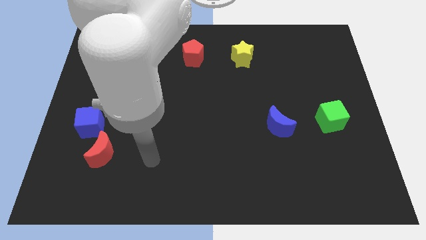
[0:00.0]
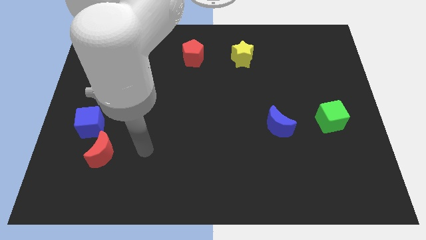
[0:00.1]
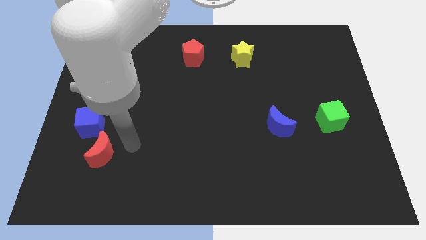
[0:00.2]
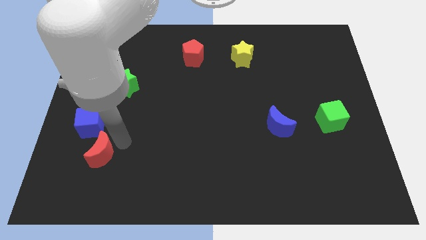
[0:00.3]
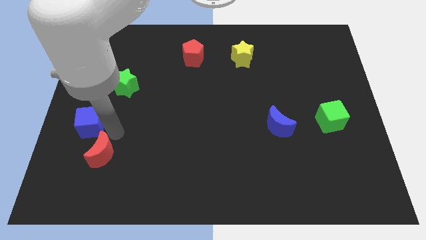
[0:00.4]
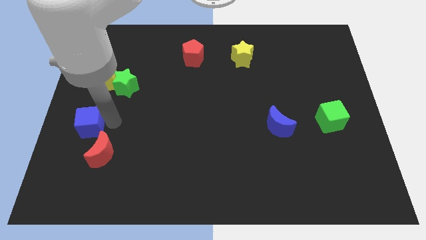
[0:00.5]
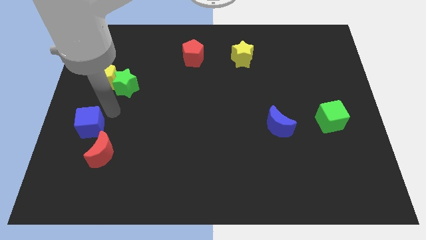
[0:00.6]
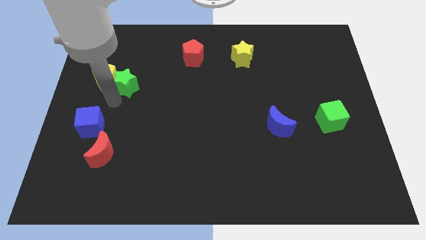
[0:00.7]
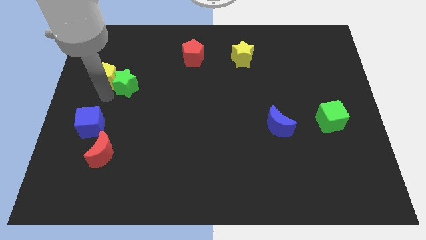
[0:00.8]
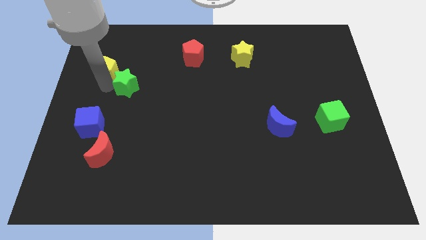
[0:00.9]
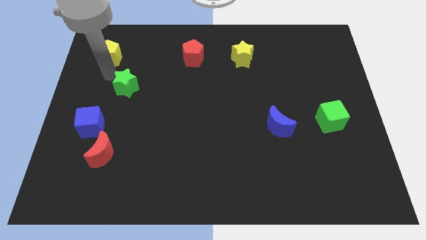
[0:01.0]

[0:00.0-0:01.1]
separate the green star from the yellow pentagon

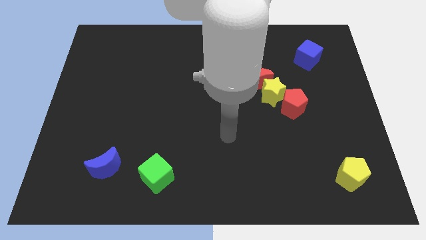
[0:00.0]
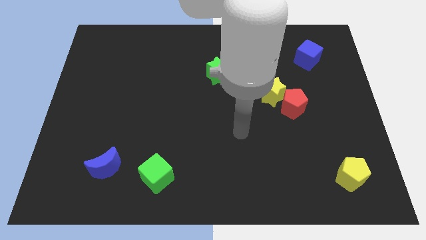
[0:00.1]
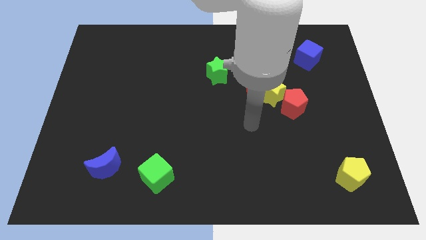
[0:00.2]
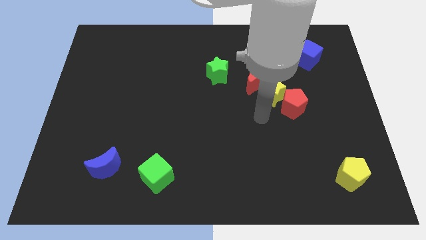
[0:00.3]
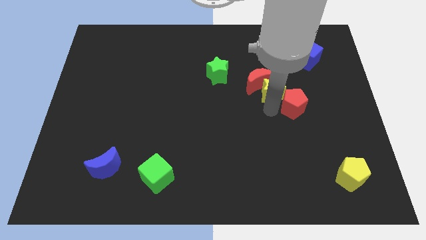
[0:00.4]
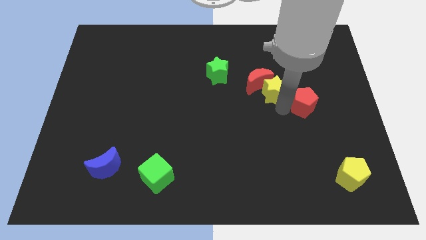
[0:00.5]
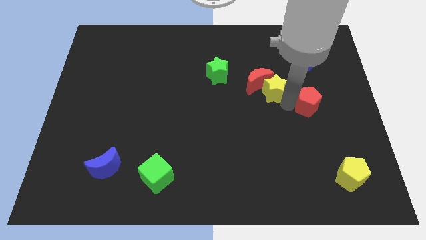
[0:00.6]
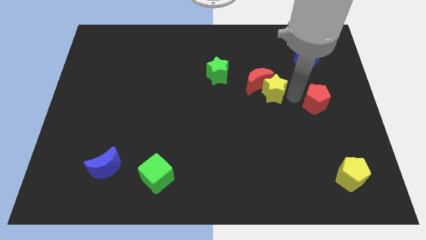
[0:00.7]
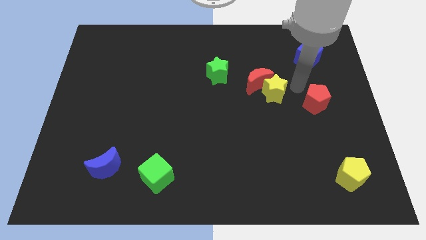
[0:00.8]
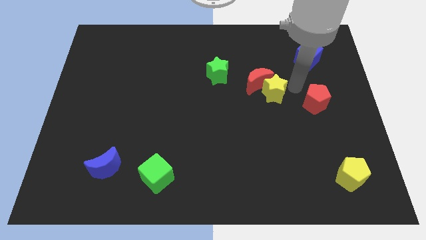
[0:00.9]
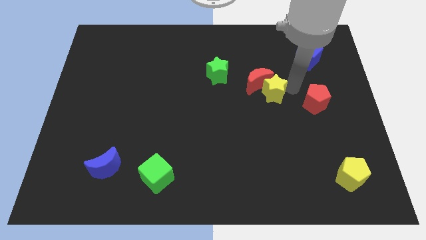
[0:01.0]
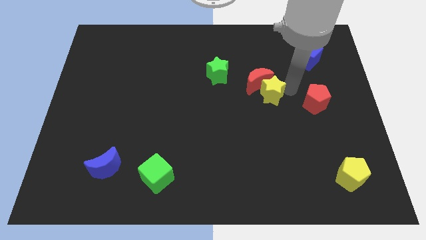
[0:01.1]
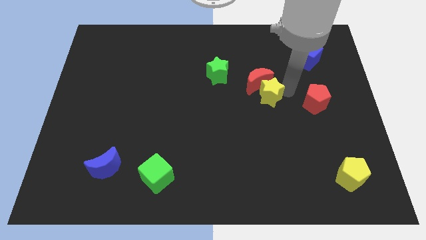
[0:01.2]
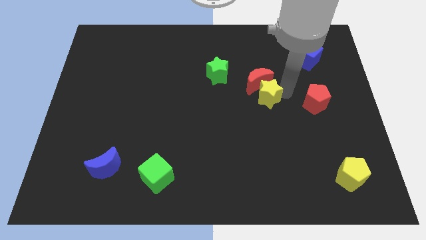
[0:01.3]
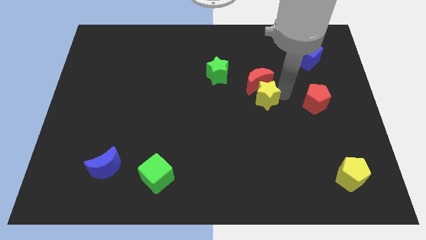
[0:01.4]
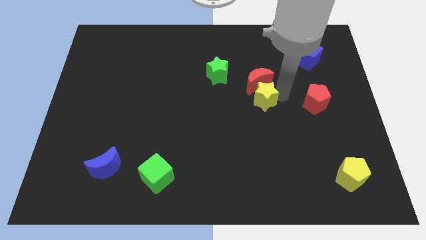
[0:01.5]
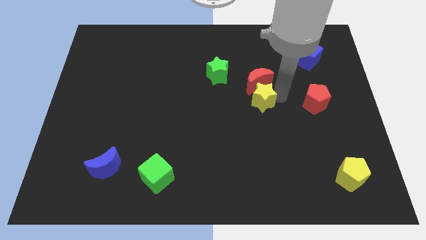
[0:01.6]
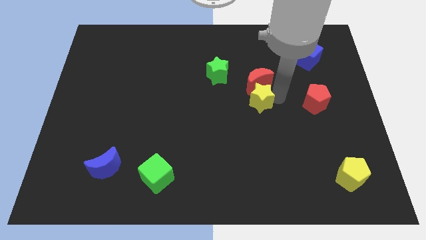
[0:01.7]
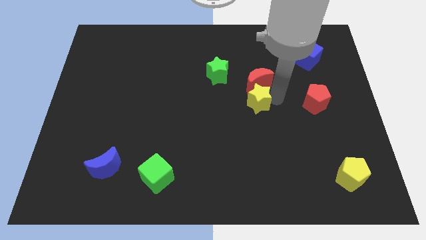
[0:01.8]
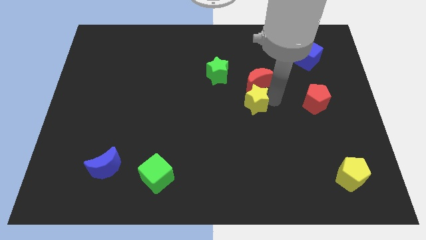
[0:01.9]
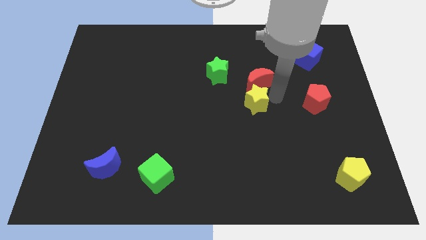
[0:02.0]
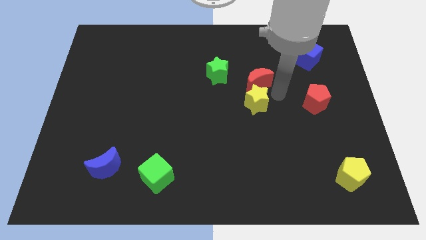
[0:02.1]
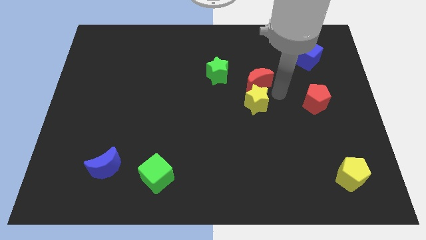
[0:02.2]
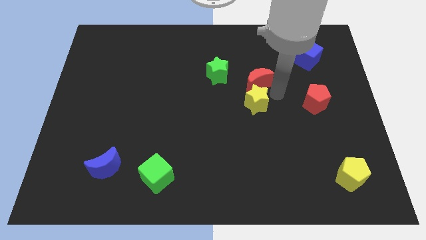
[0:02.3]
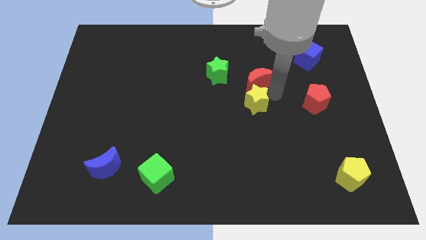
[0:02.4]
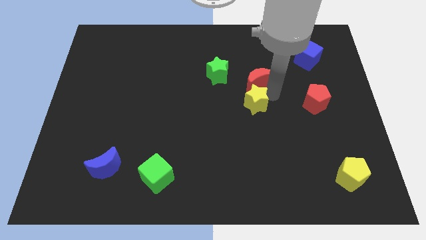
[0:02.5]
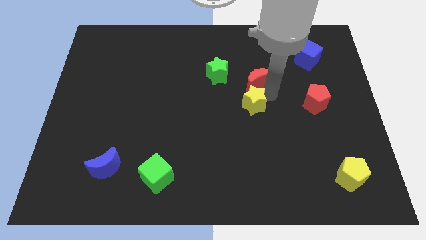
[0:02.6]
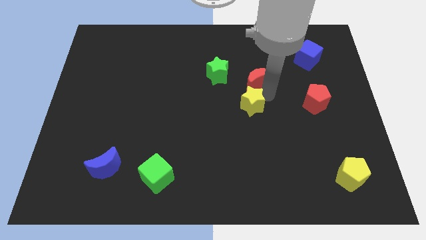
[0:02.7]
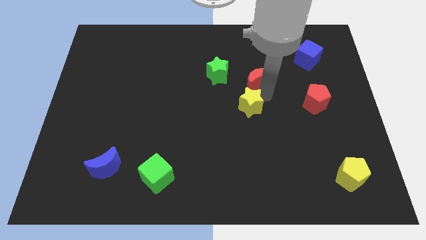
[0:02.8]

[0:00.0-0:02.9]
move the yellow star away from the red moon and red pentagon

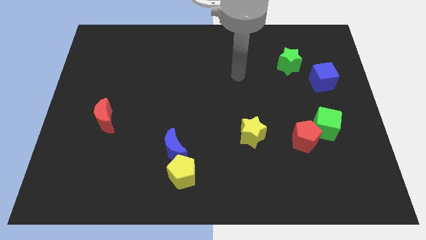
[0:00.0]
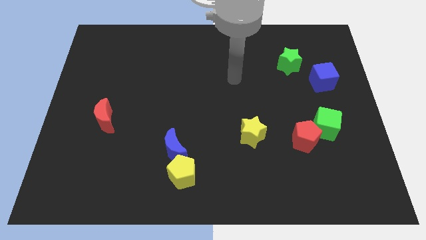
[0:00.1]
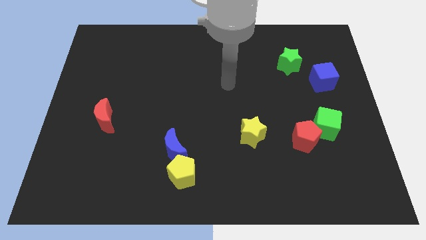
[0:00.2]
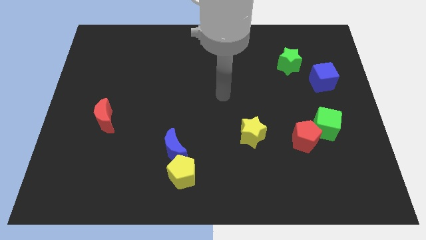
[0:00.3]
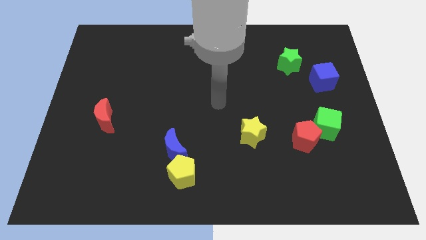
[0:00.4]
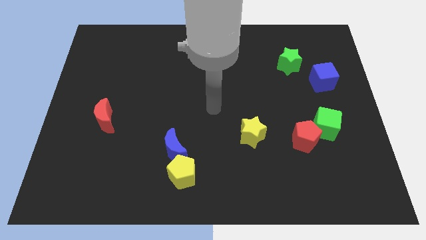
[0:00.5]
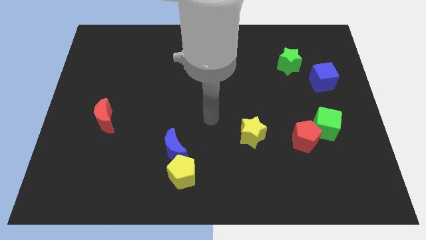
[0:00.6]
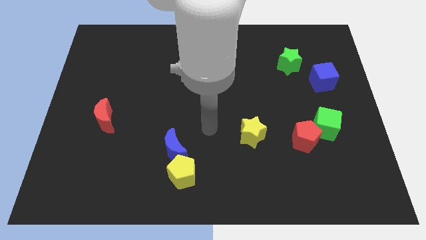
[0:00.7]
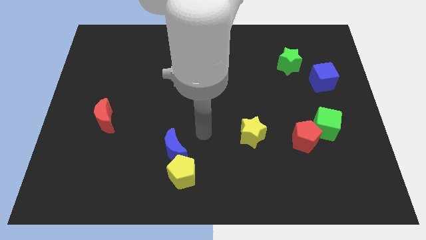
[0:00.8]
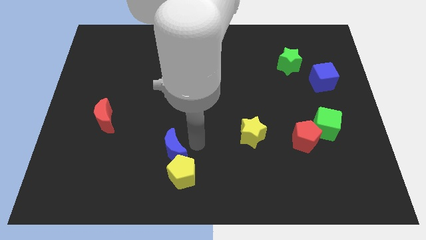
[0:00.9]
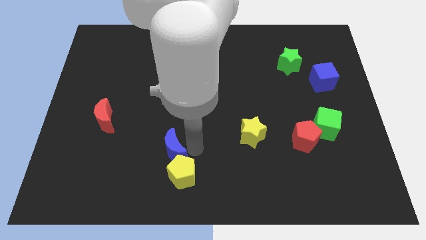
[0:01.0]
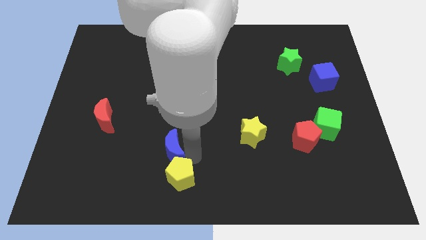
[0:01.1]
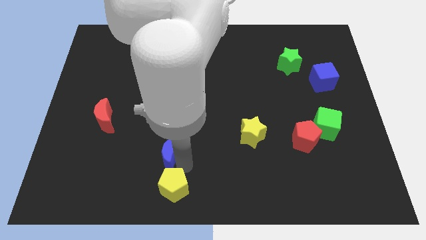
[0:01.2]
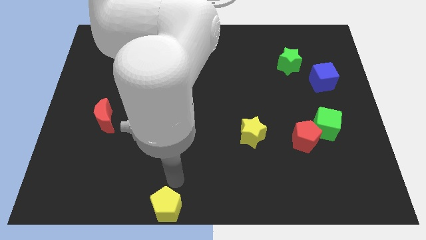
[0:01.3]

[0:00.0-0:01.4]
move the blue moon away from the yellow pentagon

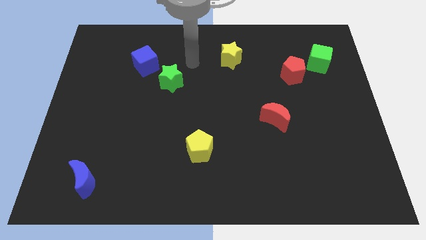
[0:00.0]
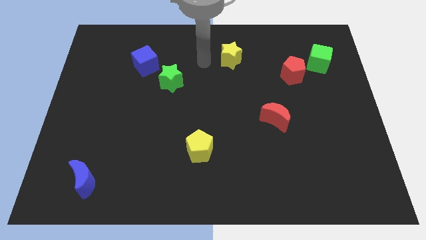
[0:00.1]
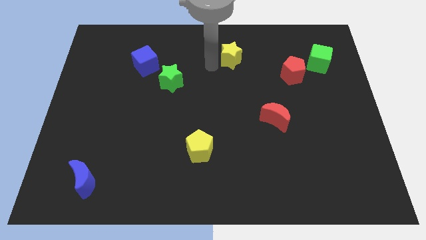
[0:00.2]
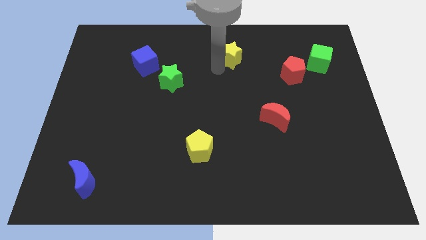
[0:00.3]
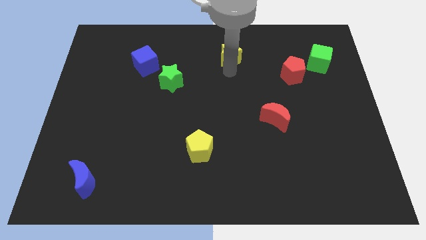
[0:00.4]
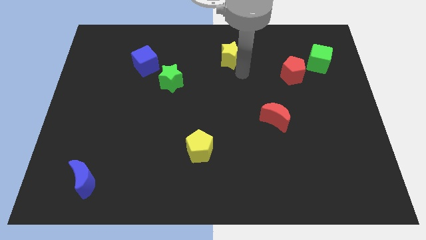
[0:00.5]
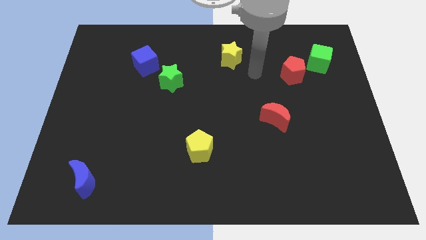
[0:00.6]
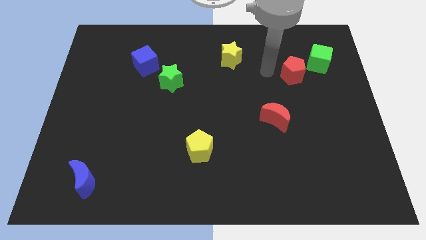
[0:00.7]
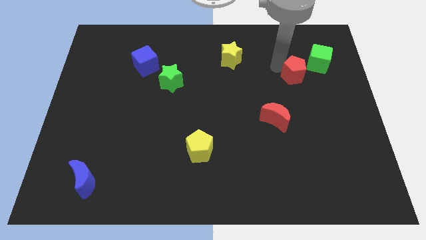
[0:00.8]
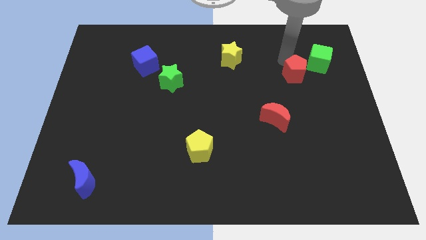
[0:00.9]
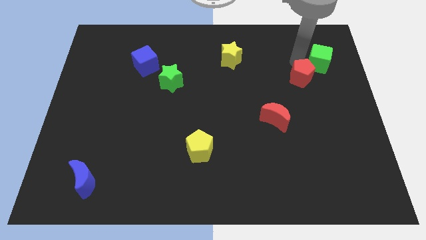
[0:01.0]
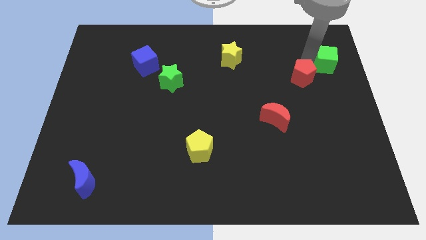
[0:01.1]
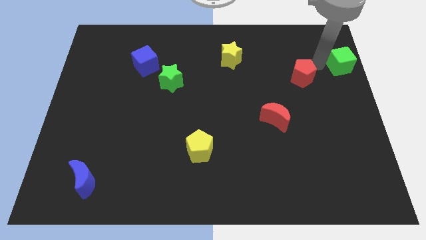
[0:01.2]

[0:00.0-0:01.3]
separate the red pentagon from the green cube

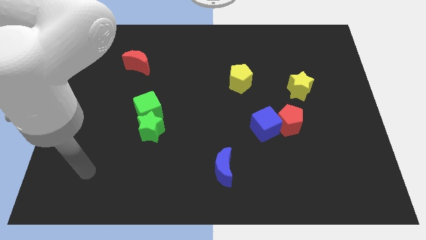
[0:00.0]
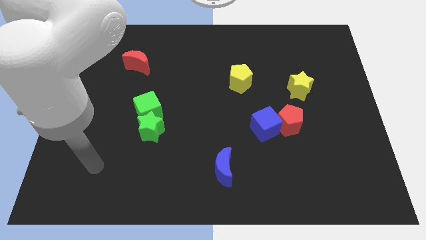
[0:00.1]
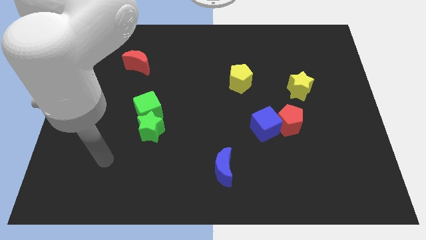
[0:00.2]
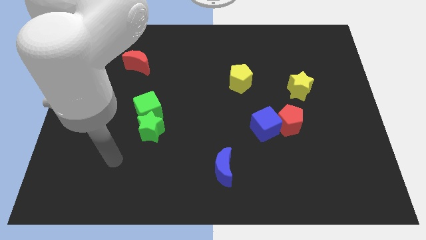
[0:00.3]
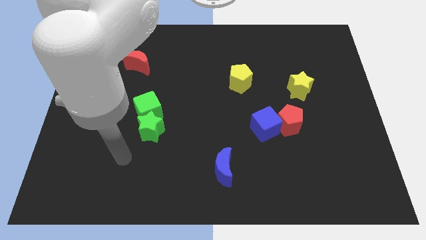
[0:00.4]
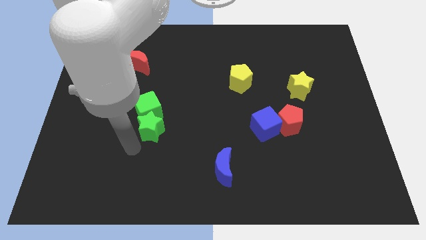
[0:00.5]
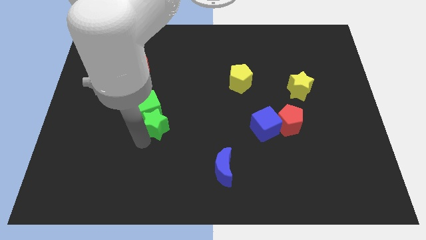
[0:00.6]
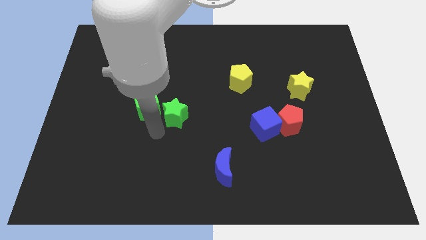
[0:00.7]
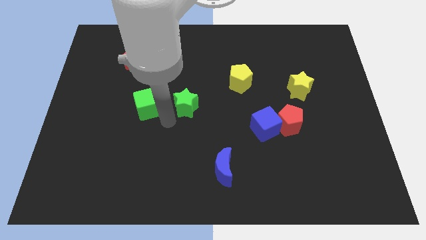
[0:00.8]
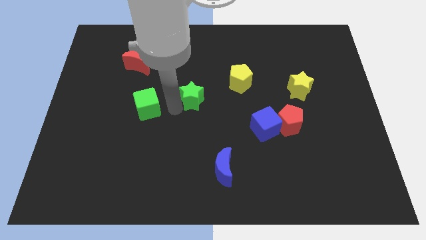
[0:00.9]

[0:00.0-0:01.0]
separate the green cube from the green star

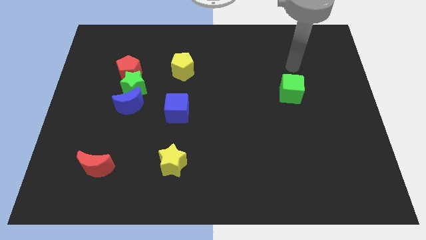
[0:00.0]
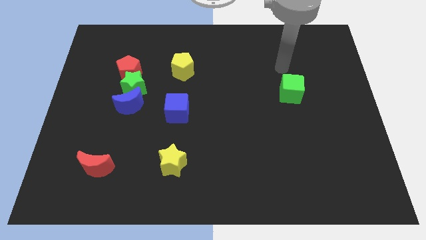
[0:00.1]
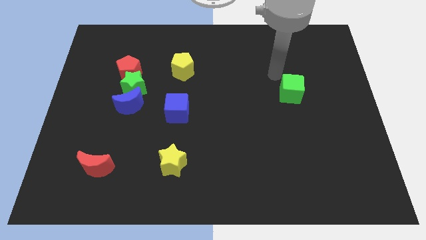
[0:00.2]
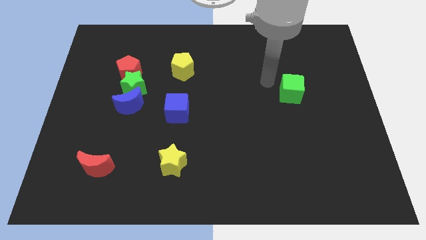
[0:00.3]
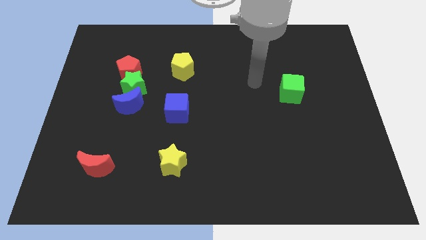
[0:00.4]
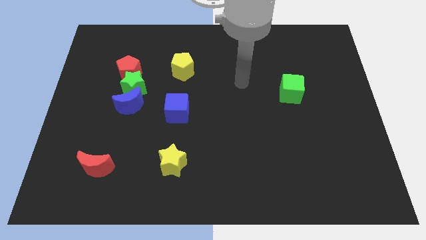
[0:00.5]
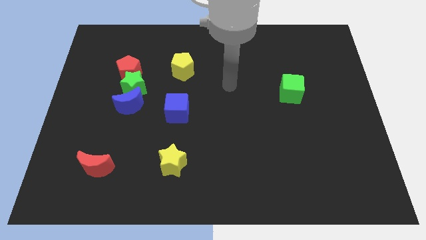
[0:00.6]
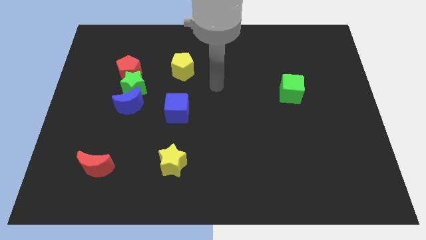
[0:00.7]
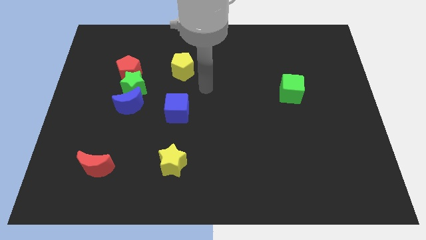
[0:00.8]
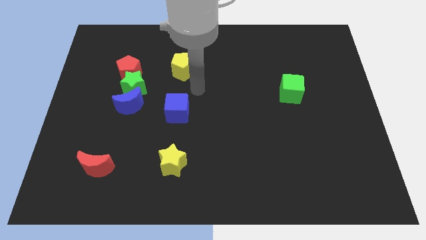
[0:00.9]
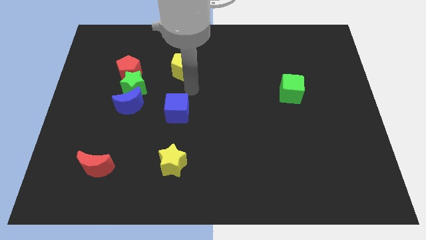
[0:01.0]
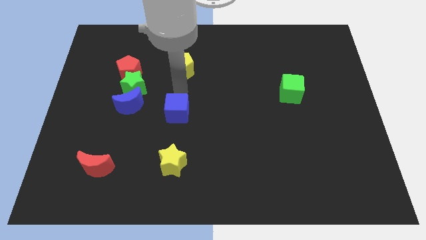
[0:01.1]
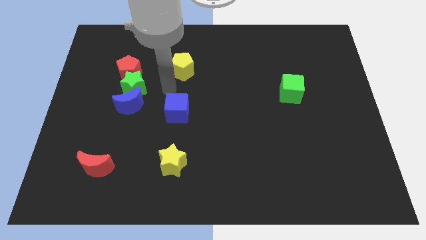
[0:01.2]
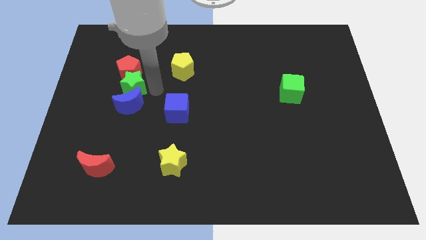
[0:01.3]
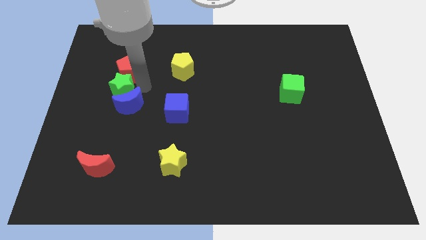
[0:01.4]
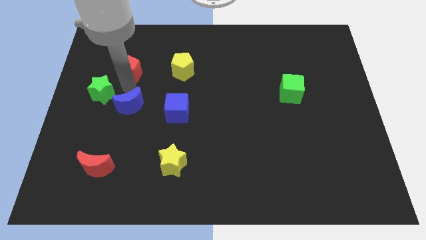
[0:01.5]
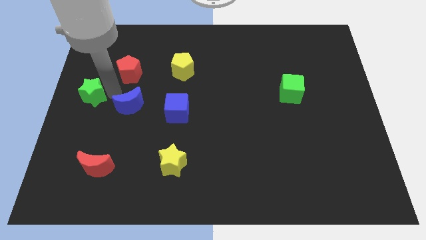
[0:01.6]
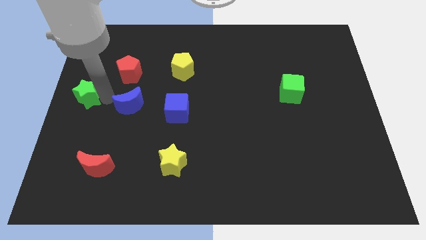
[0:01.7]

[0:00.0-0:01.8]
move the blue moon away from the green star
